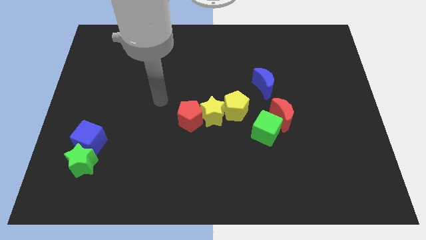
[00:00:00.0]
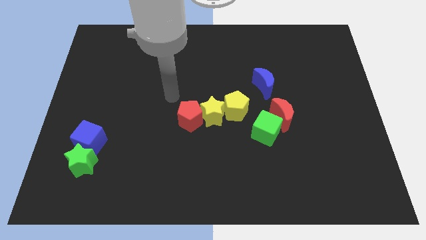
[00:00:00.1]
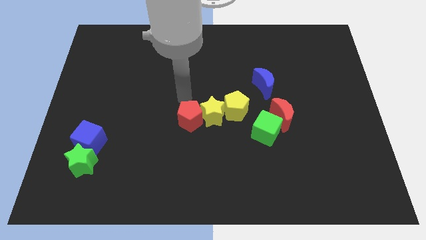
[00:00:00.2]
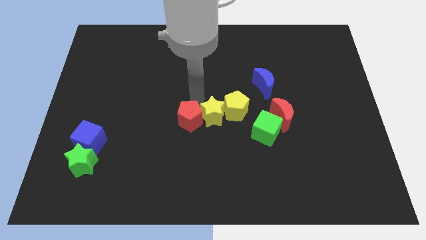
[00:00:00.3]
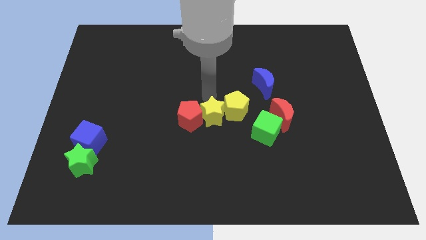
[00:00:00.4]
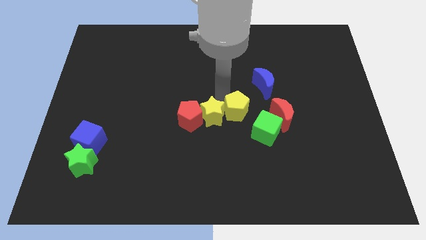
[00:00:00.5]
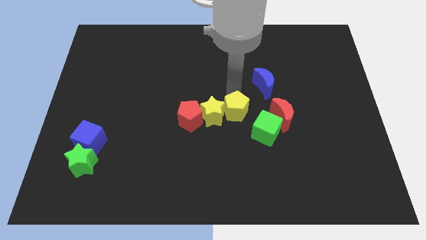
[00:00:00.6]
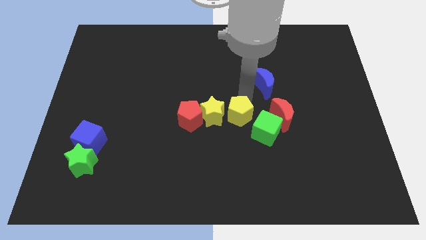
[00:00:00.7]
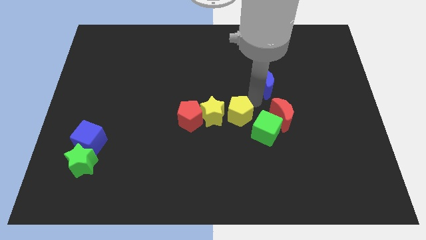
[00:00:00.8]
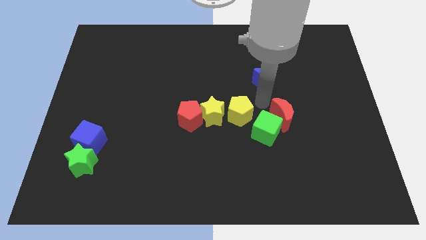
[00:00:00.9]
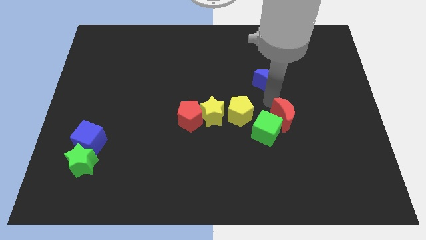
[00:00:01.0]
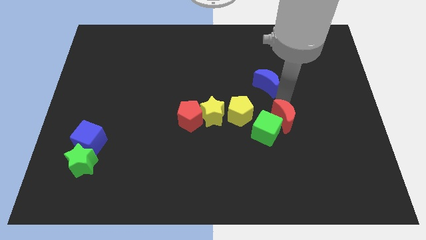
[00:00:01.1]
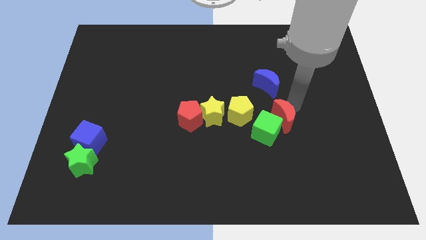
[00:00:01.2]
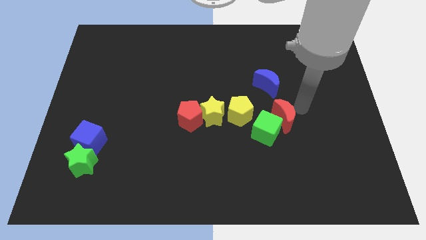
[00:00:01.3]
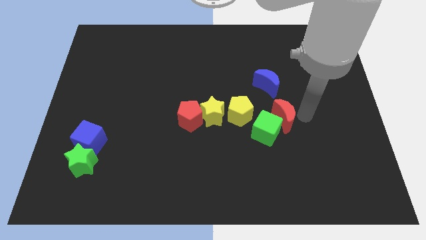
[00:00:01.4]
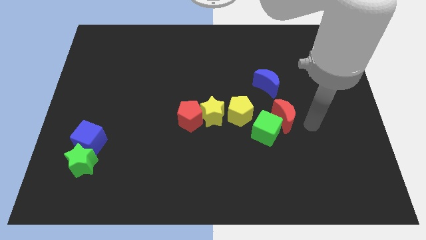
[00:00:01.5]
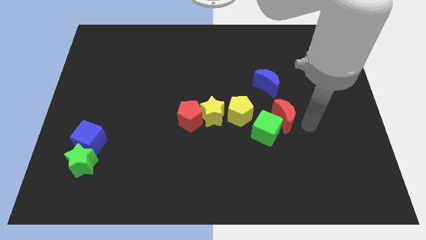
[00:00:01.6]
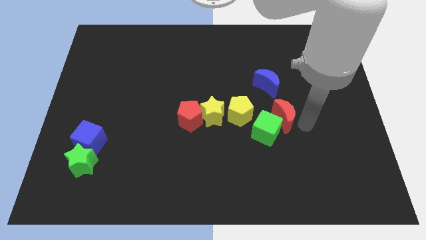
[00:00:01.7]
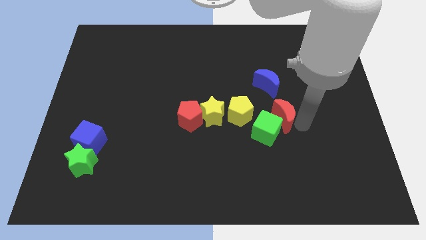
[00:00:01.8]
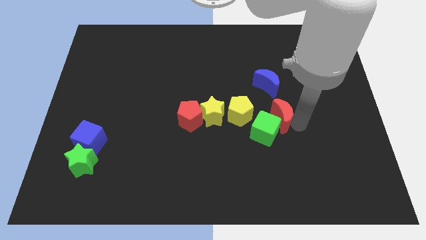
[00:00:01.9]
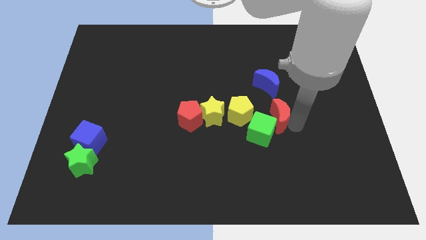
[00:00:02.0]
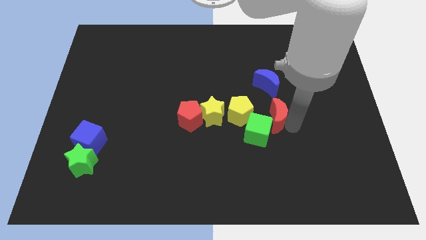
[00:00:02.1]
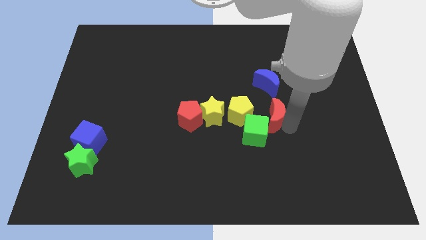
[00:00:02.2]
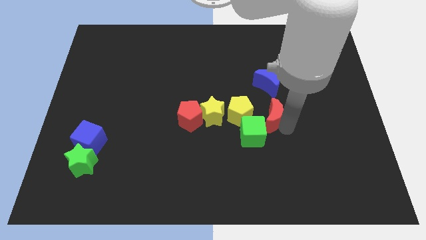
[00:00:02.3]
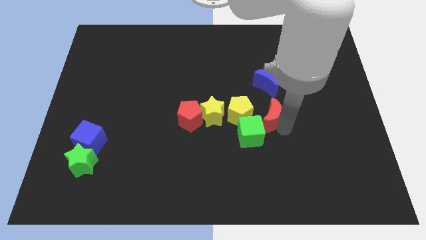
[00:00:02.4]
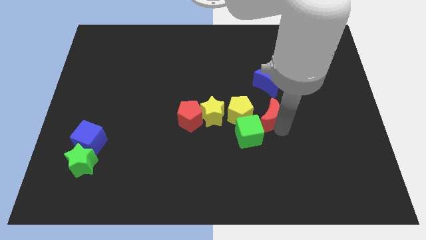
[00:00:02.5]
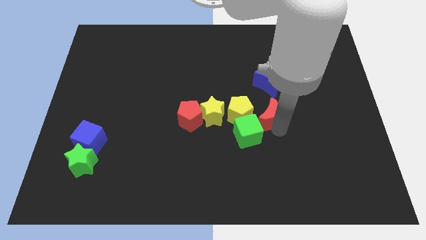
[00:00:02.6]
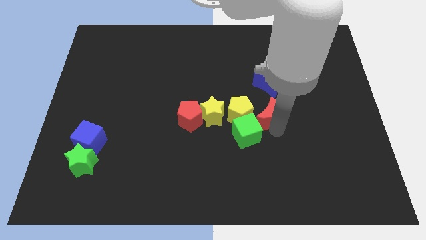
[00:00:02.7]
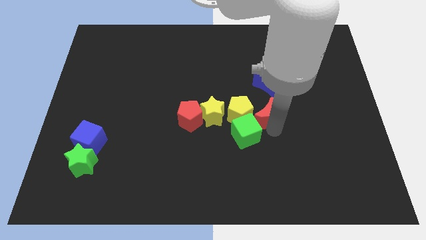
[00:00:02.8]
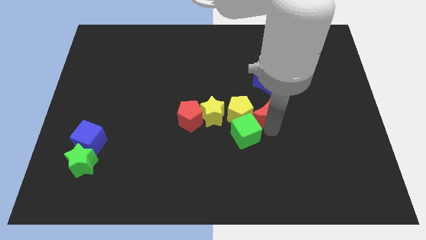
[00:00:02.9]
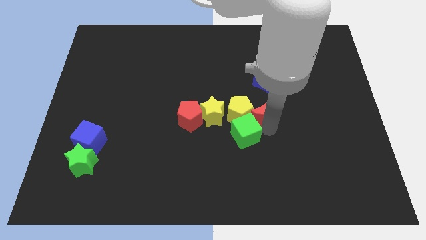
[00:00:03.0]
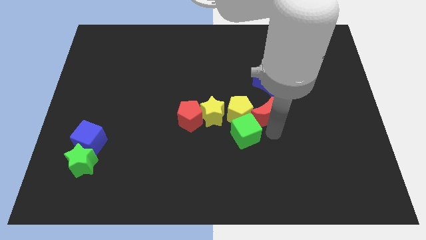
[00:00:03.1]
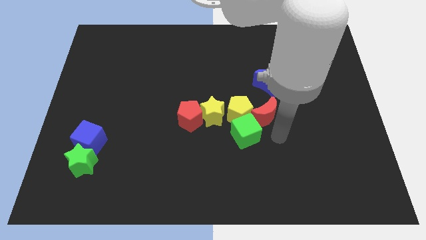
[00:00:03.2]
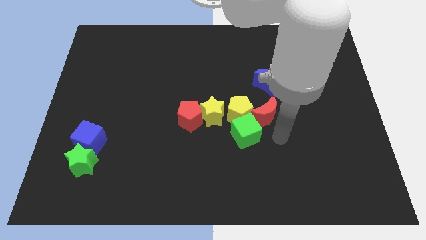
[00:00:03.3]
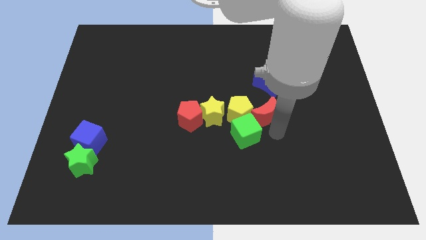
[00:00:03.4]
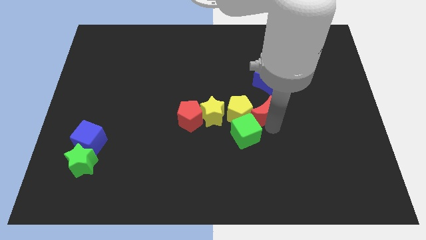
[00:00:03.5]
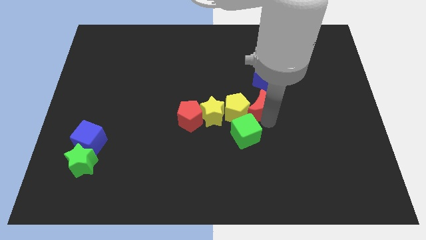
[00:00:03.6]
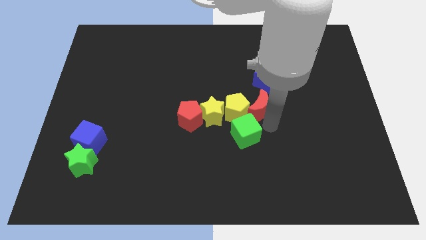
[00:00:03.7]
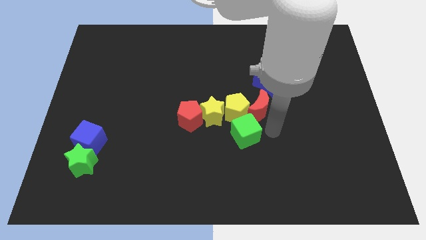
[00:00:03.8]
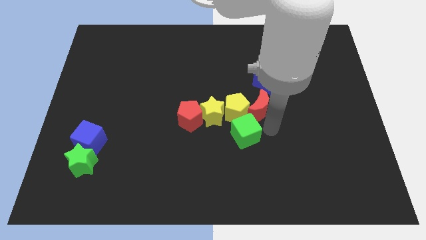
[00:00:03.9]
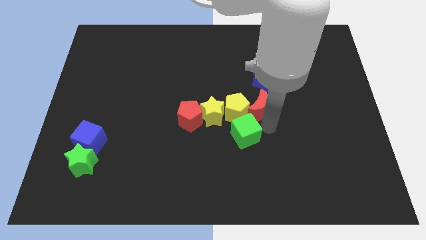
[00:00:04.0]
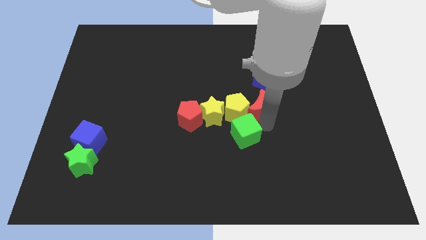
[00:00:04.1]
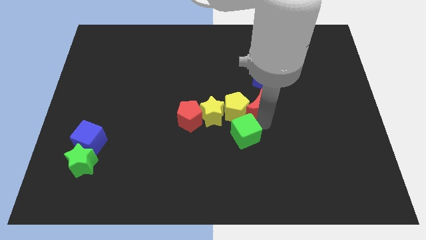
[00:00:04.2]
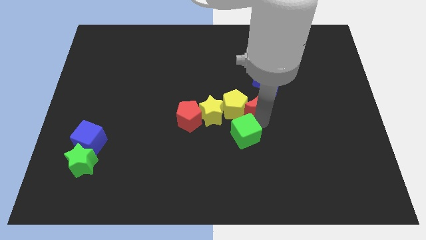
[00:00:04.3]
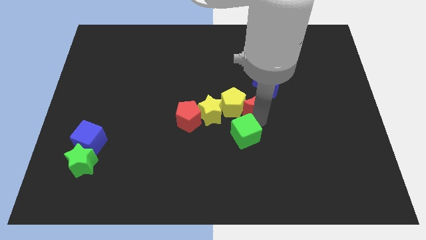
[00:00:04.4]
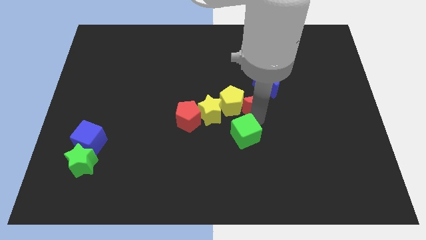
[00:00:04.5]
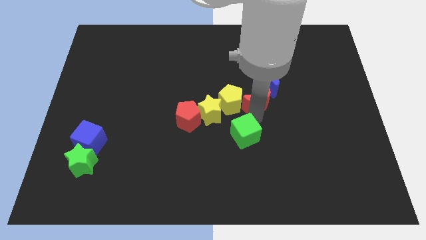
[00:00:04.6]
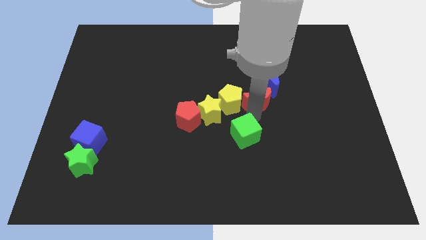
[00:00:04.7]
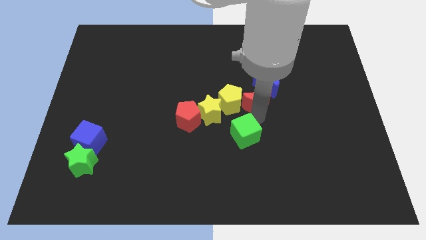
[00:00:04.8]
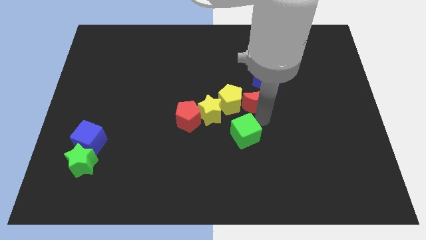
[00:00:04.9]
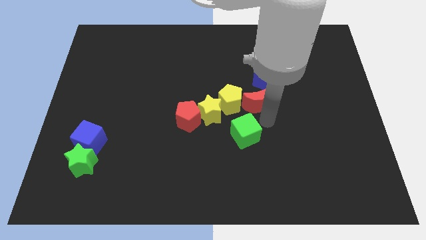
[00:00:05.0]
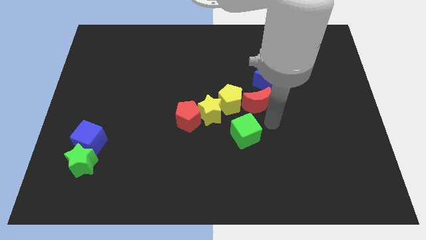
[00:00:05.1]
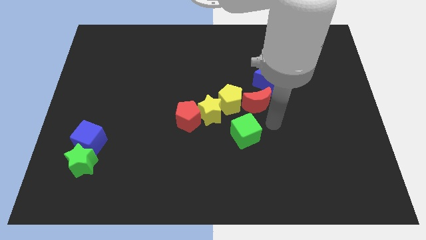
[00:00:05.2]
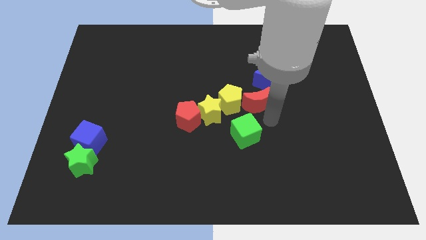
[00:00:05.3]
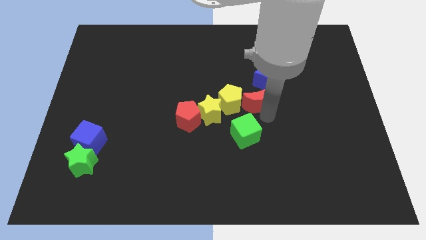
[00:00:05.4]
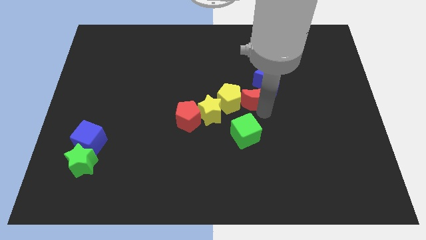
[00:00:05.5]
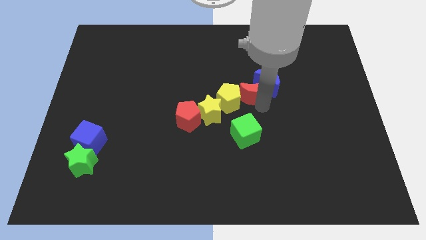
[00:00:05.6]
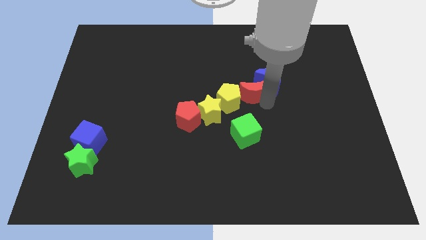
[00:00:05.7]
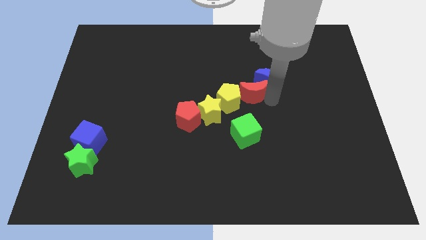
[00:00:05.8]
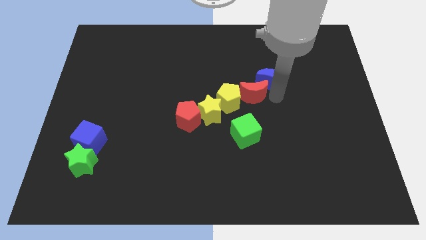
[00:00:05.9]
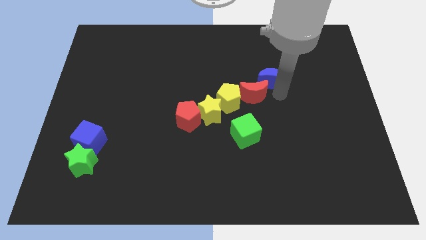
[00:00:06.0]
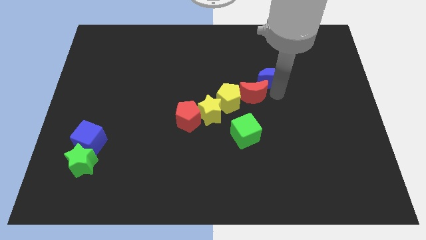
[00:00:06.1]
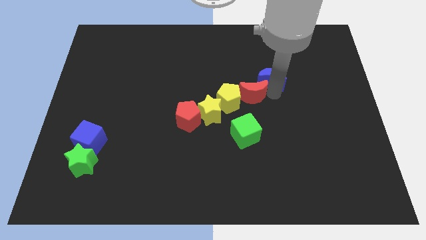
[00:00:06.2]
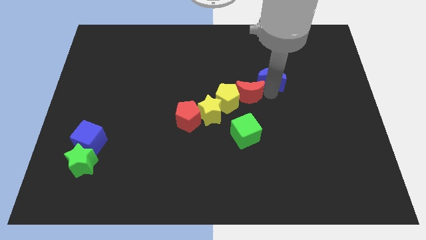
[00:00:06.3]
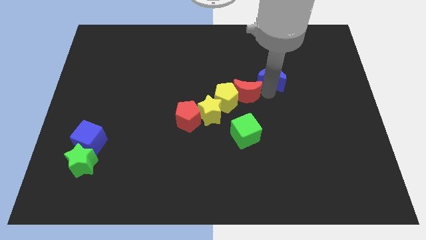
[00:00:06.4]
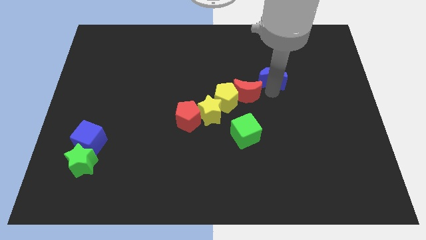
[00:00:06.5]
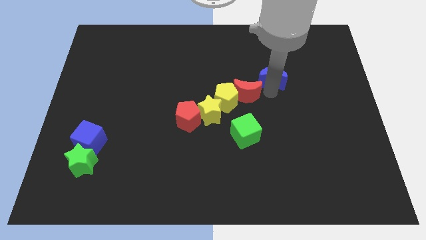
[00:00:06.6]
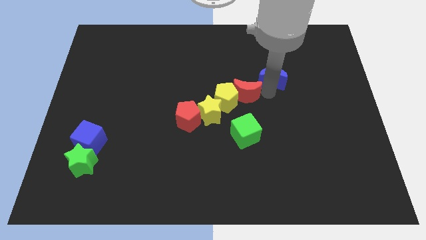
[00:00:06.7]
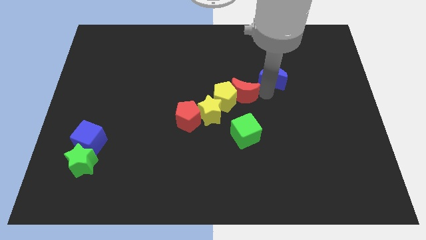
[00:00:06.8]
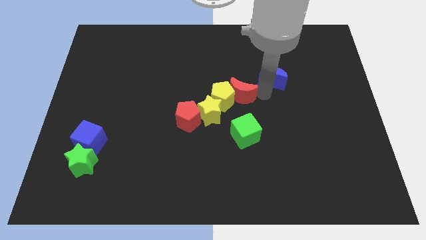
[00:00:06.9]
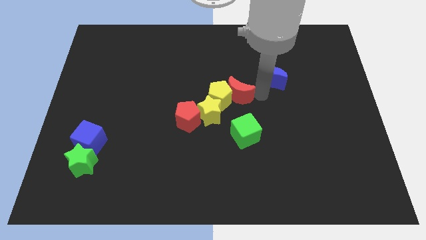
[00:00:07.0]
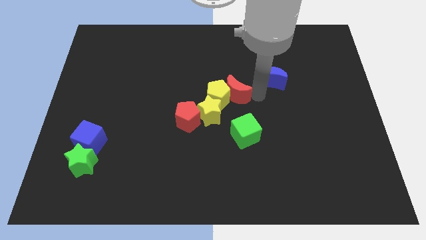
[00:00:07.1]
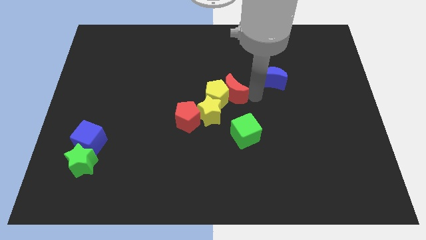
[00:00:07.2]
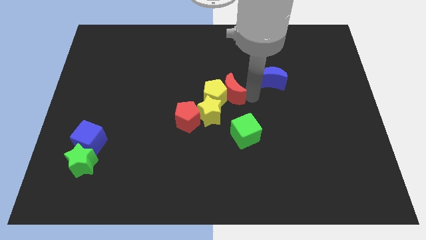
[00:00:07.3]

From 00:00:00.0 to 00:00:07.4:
move the red moon to the top right side of the red pentagon
